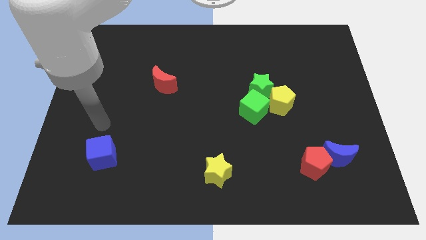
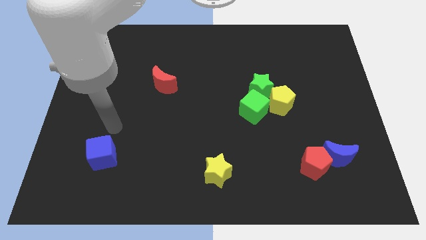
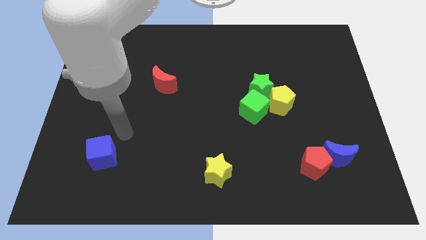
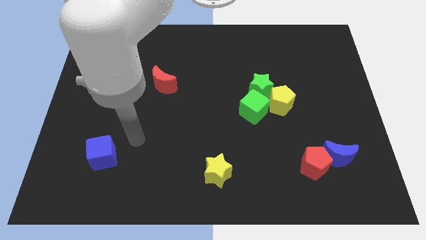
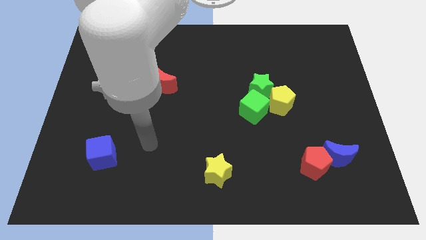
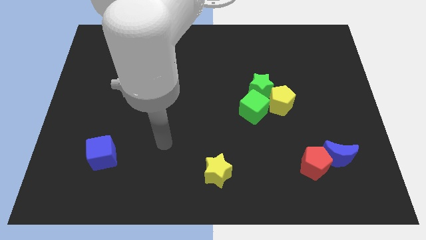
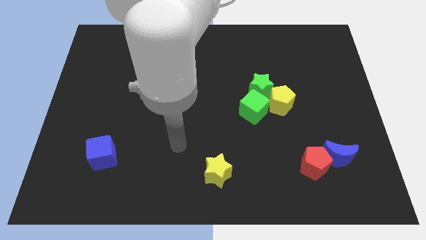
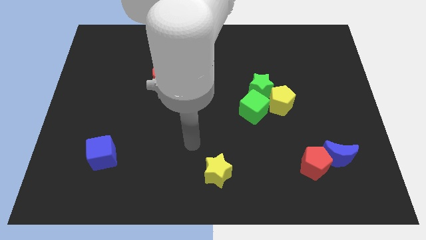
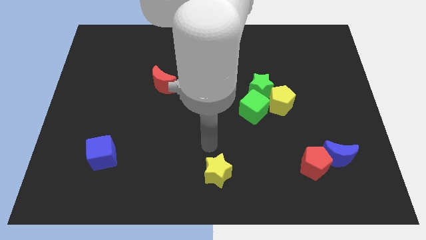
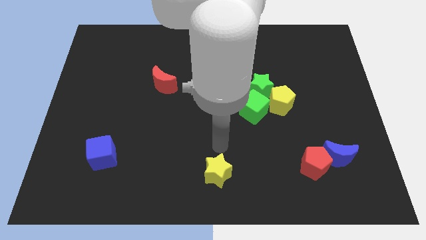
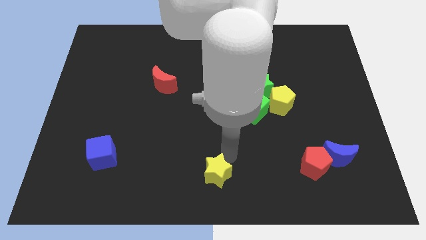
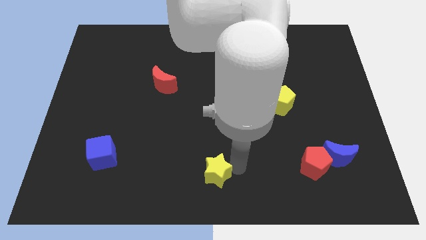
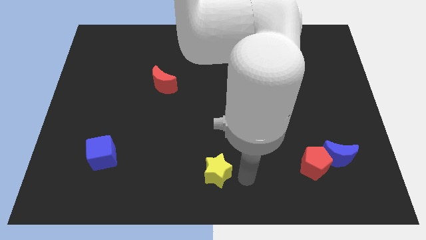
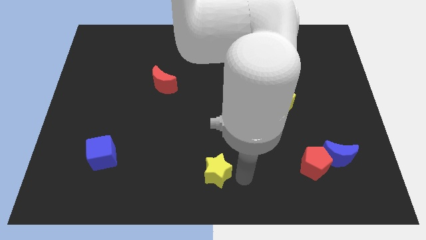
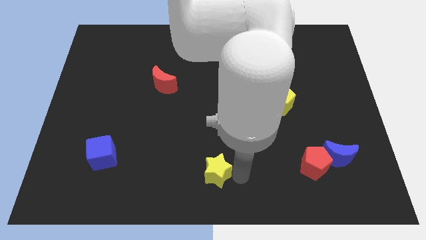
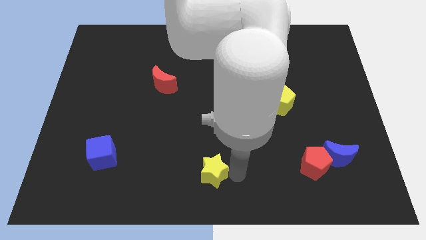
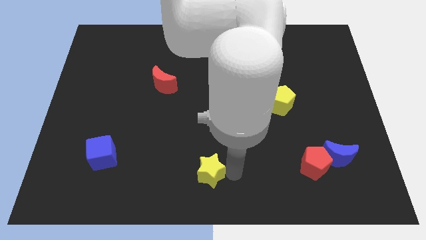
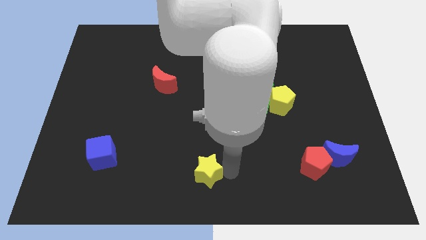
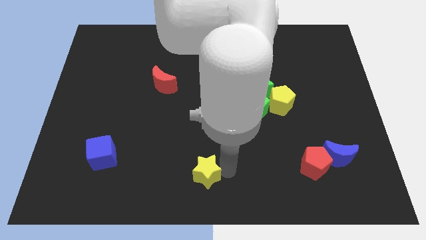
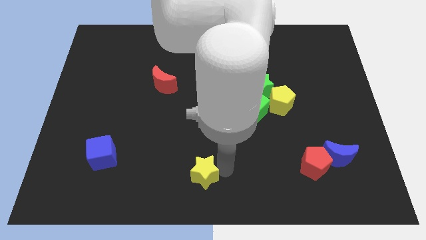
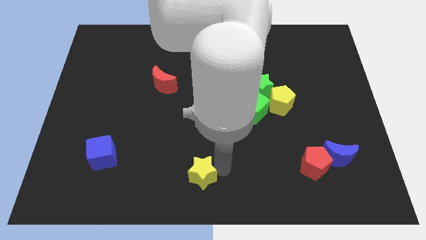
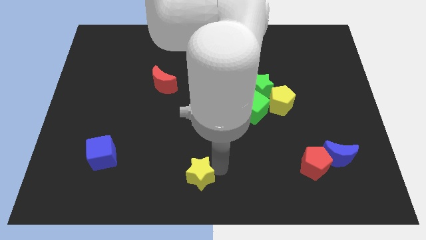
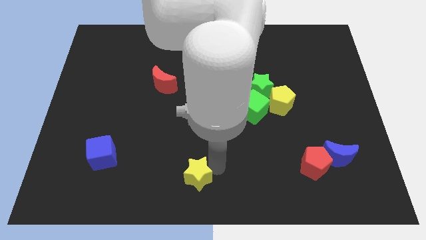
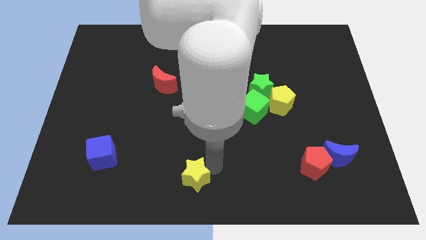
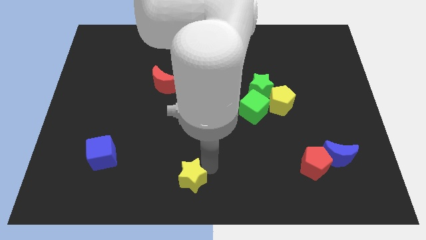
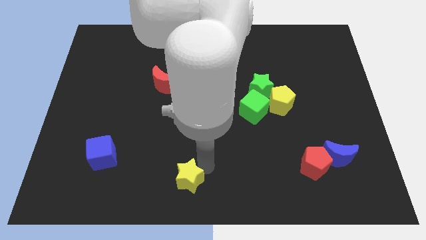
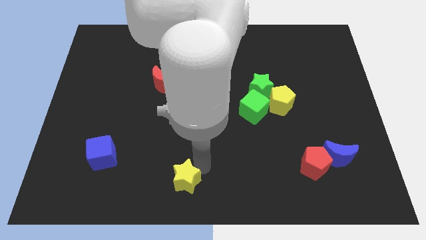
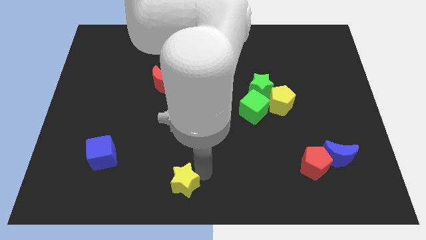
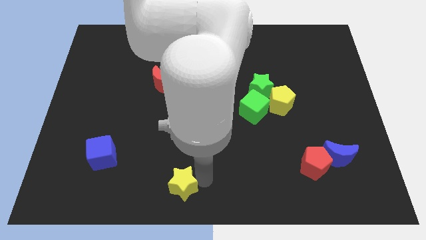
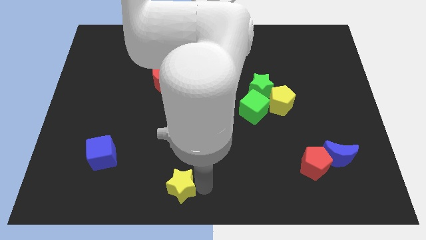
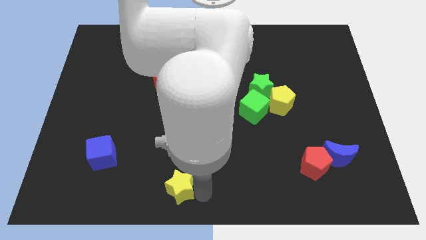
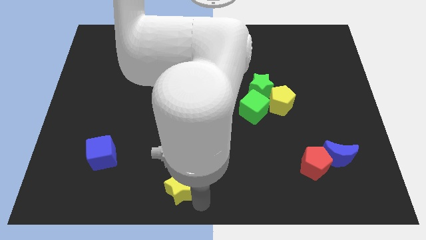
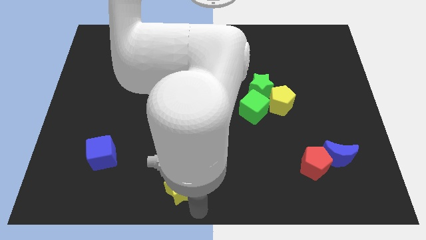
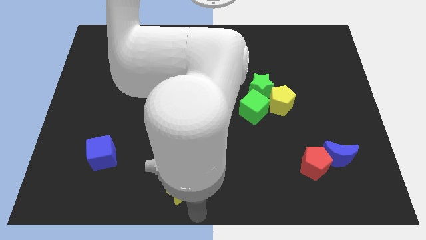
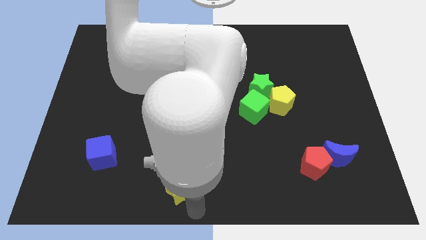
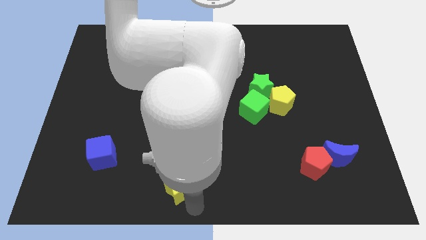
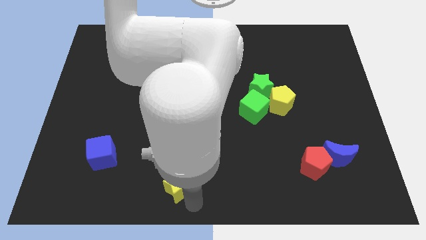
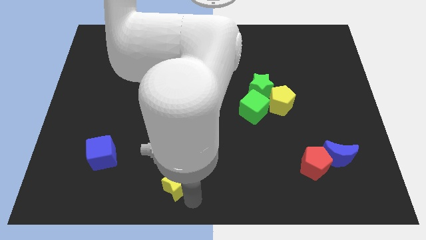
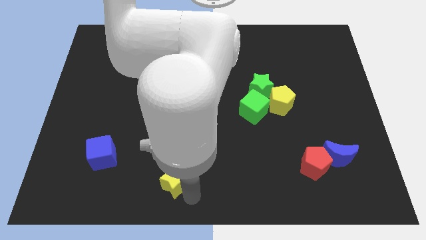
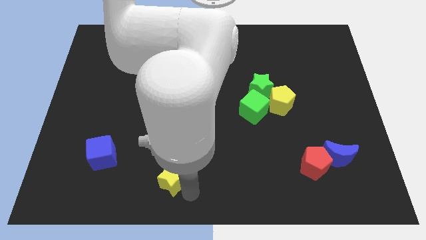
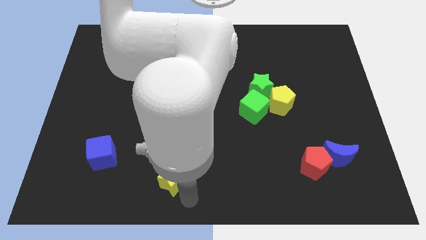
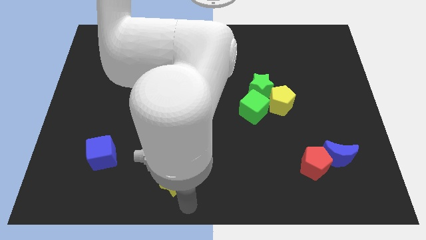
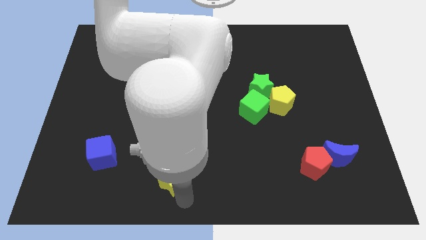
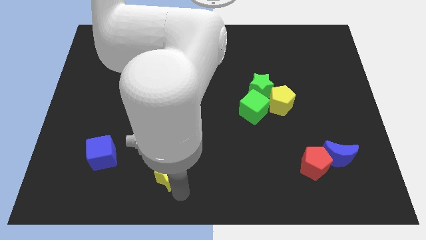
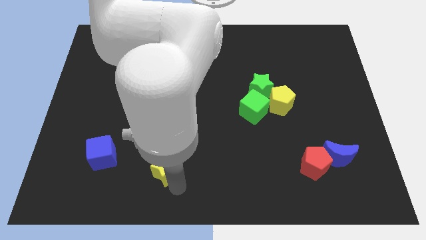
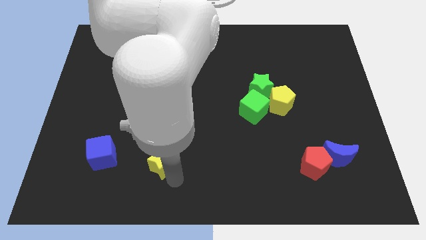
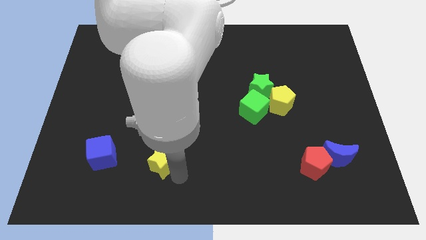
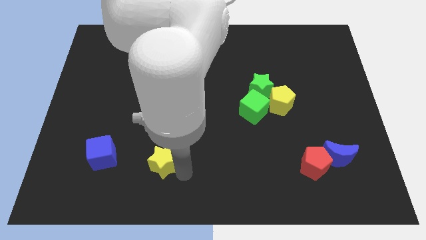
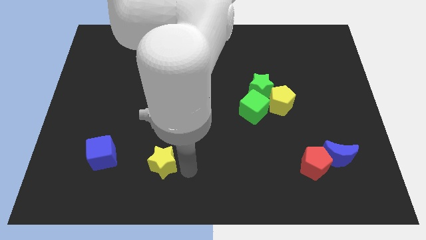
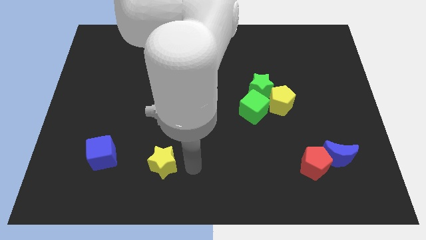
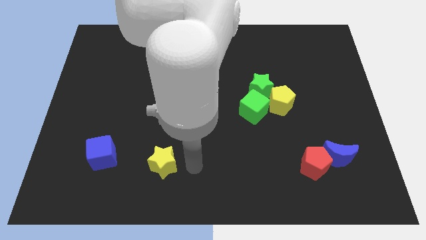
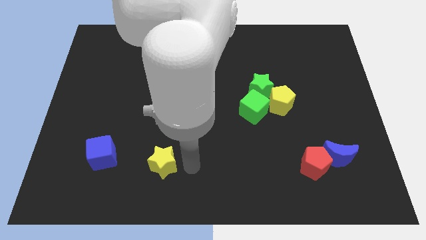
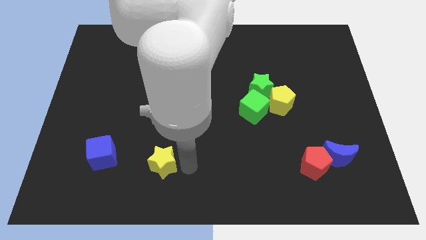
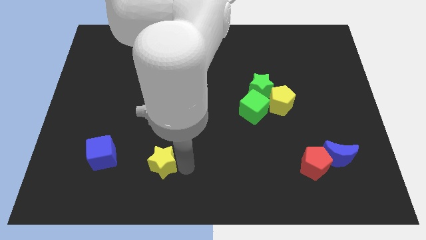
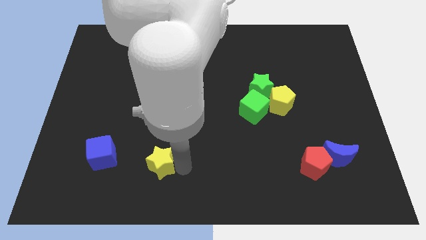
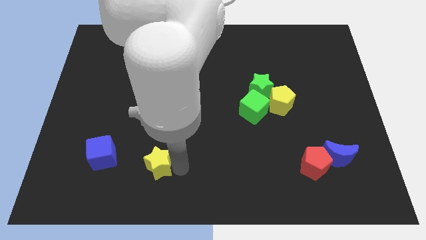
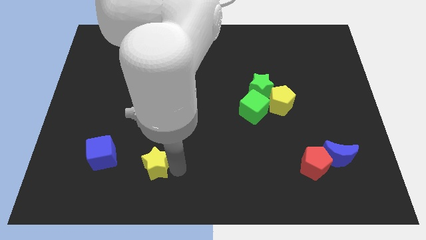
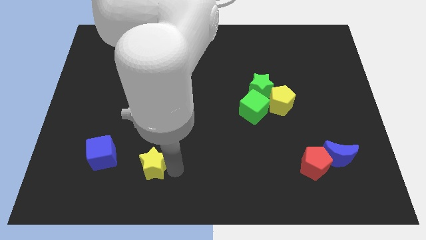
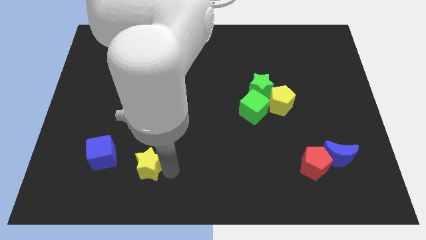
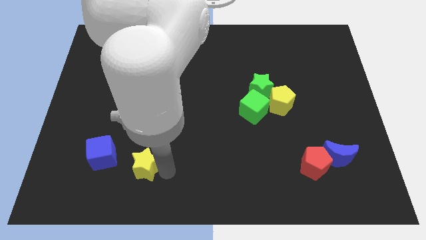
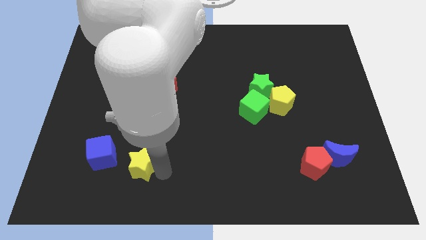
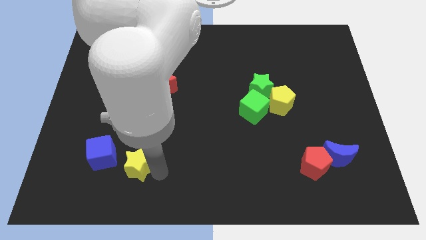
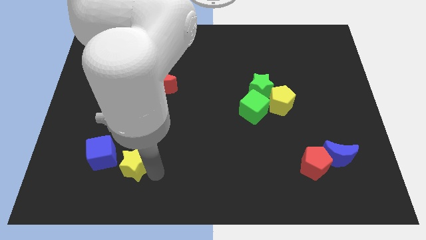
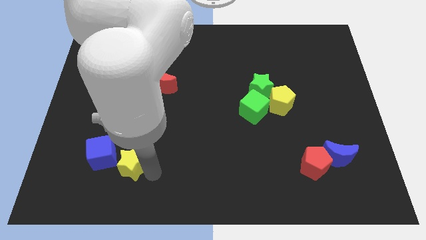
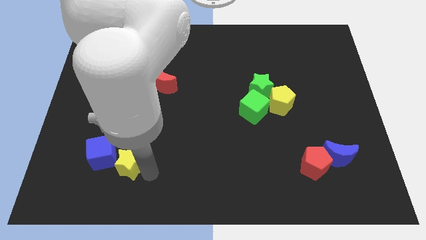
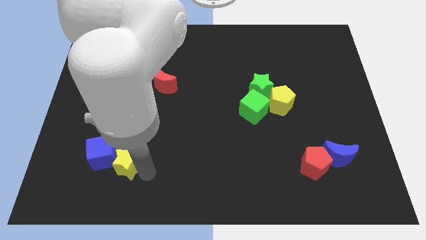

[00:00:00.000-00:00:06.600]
move the yellow star towards the blue cube

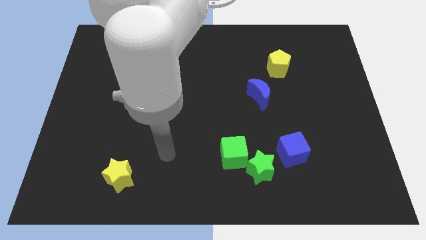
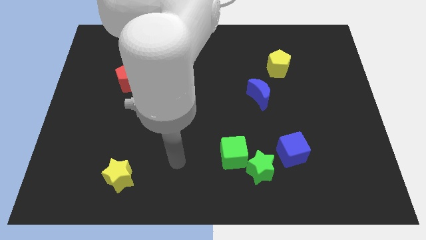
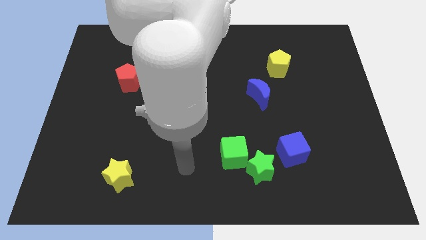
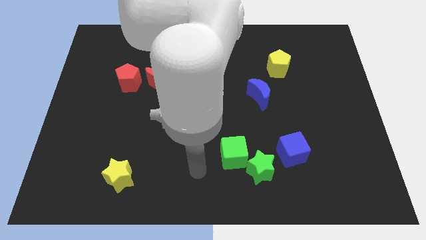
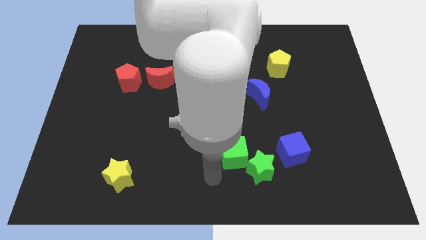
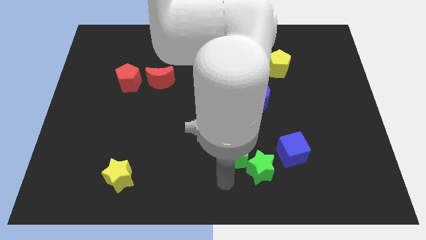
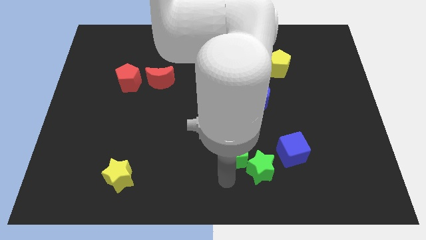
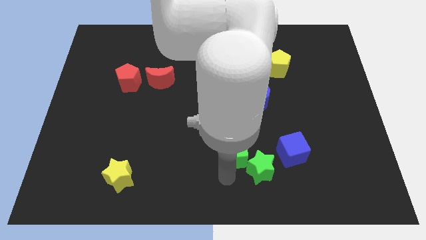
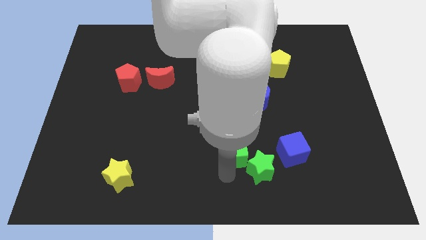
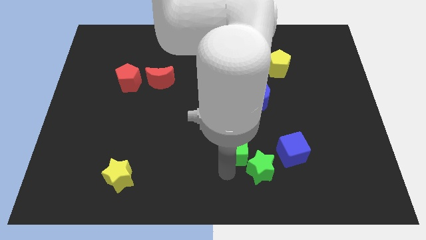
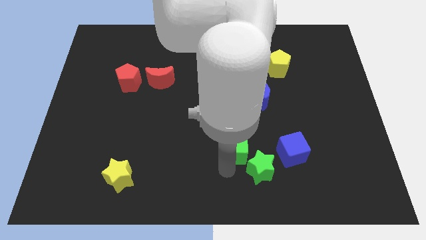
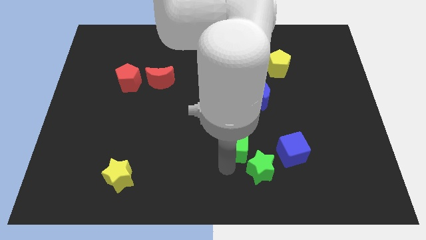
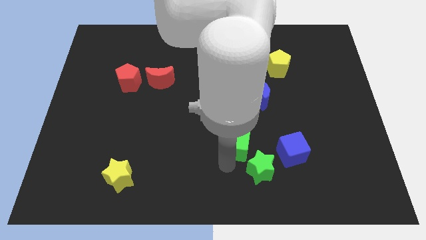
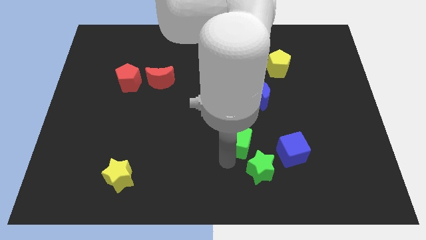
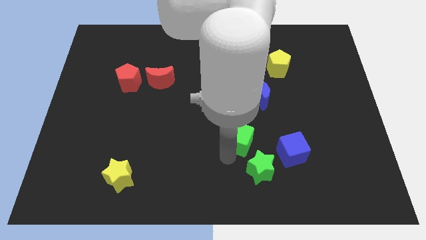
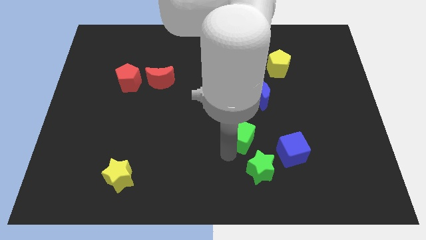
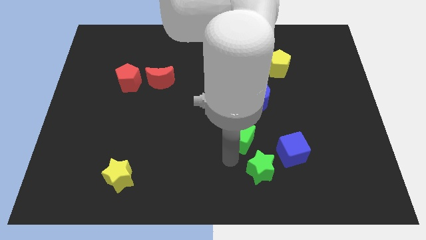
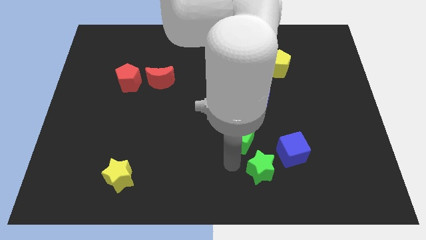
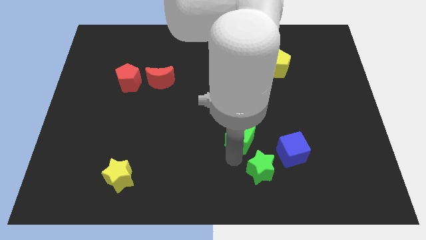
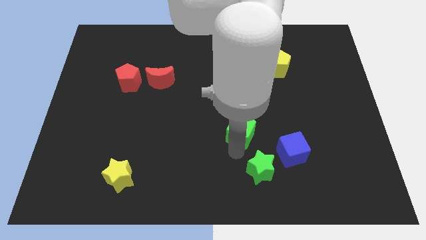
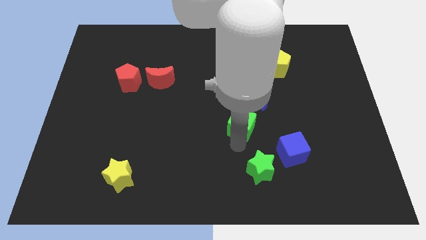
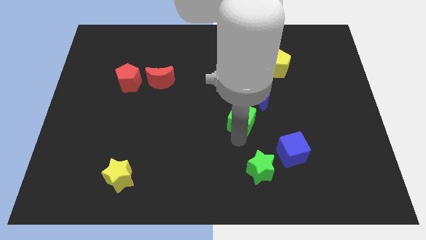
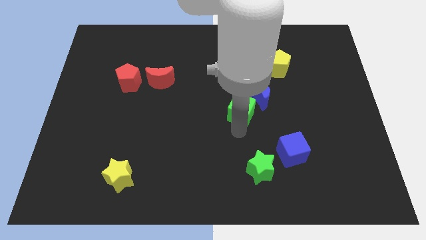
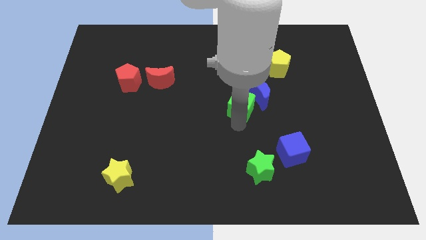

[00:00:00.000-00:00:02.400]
put the green cube close to the blue moon
